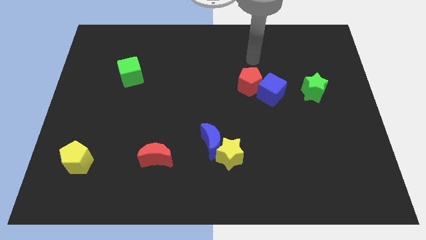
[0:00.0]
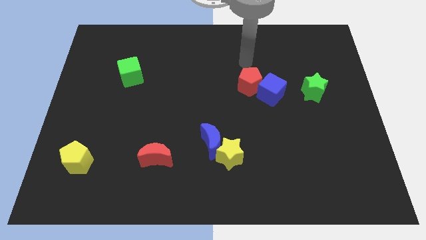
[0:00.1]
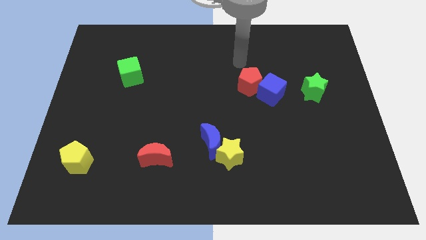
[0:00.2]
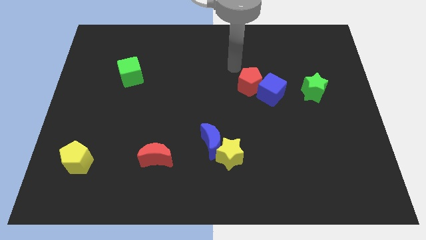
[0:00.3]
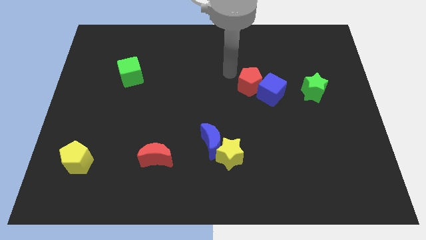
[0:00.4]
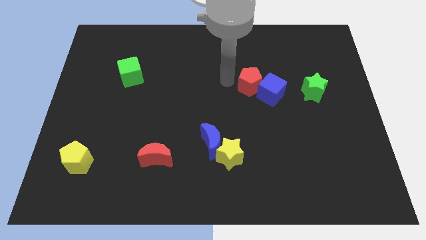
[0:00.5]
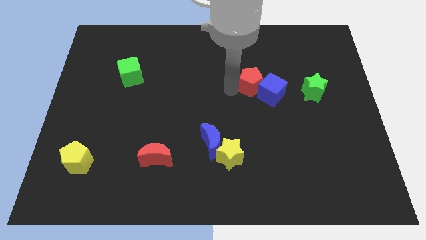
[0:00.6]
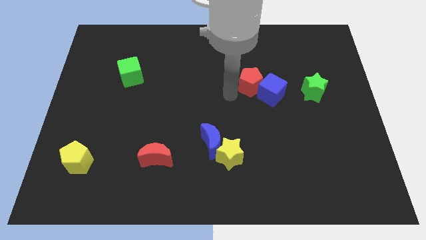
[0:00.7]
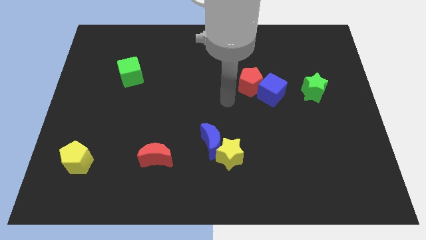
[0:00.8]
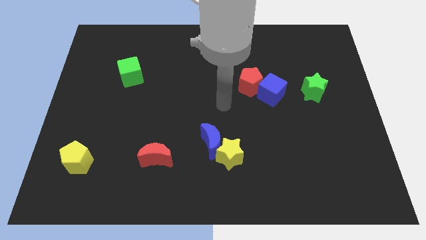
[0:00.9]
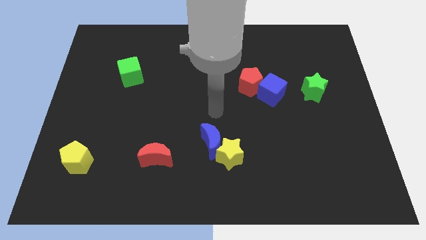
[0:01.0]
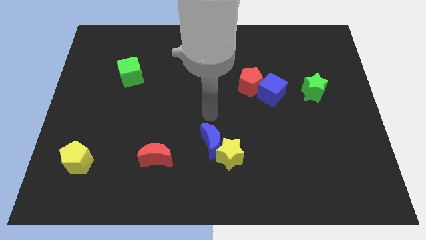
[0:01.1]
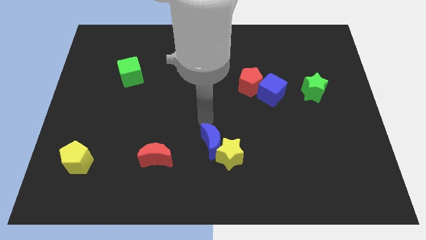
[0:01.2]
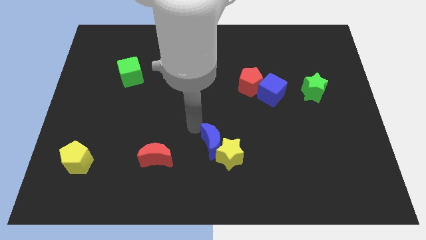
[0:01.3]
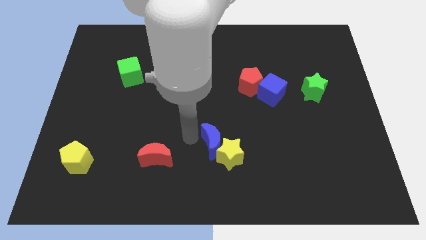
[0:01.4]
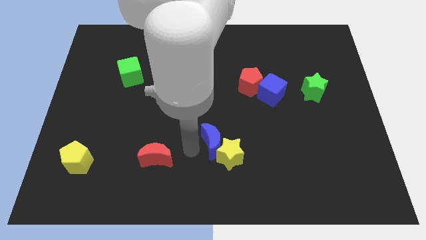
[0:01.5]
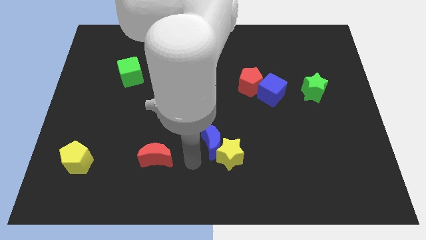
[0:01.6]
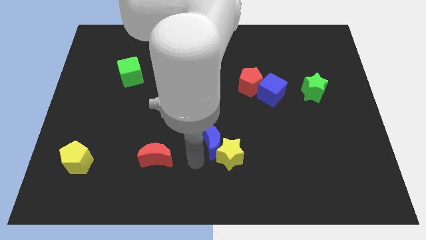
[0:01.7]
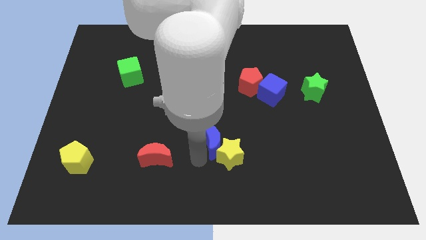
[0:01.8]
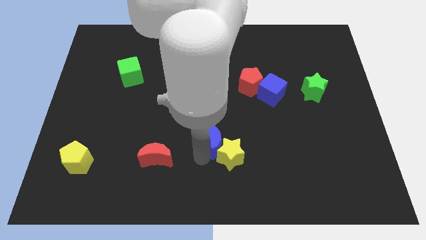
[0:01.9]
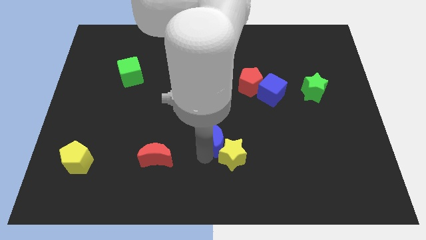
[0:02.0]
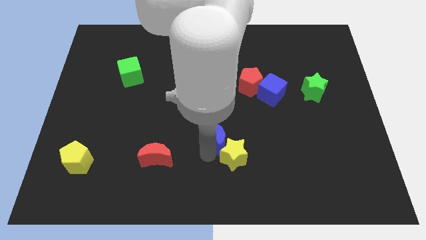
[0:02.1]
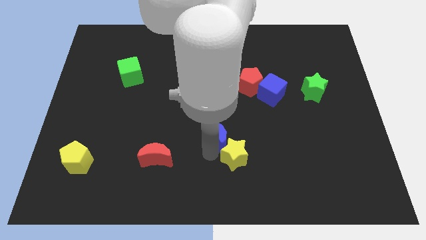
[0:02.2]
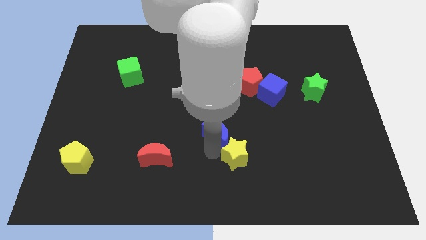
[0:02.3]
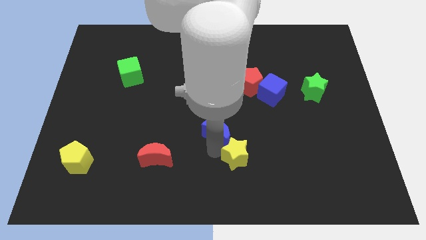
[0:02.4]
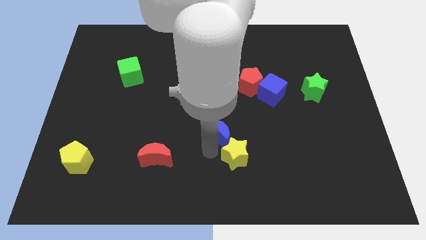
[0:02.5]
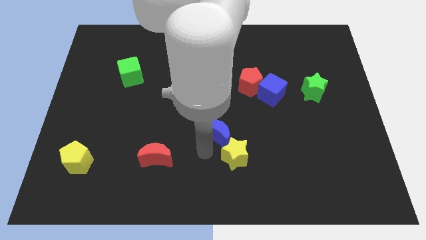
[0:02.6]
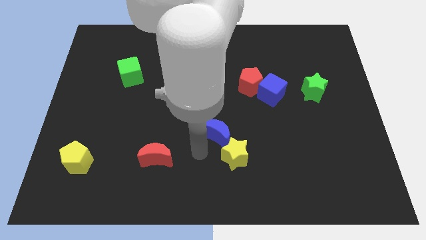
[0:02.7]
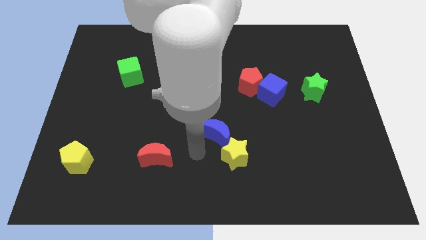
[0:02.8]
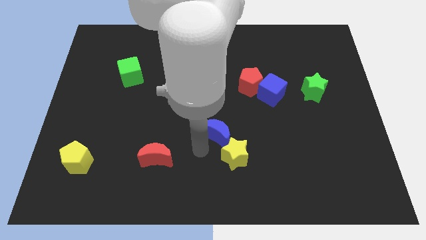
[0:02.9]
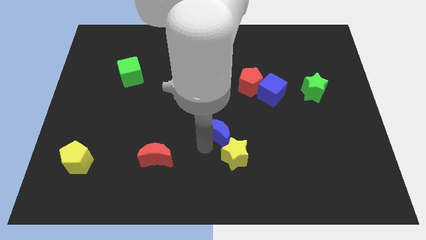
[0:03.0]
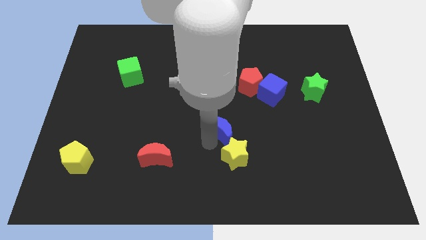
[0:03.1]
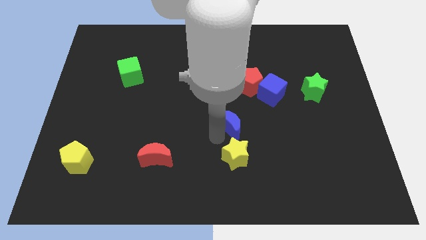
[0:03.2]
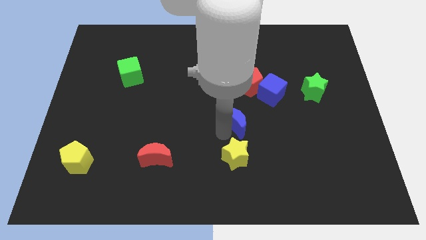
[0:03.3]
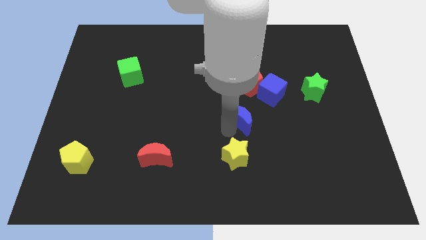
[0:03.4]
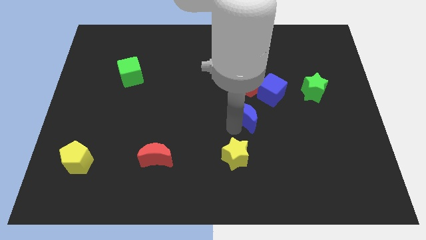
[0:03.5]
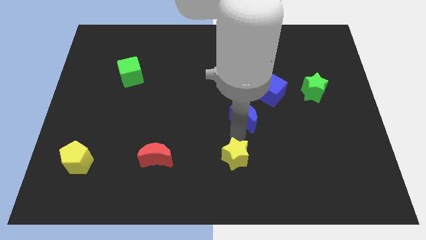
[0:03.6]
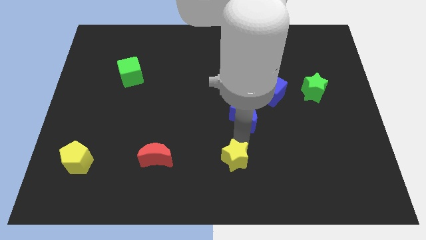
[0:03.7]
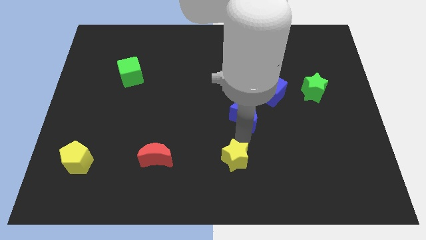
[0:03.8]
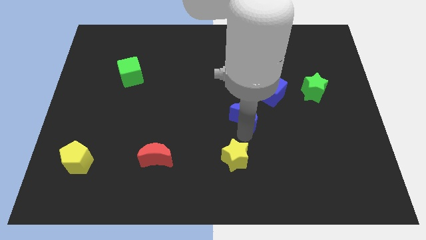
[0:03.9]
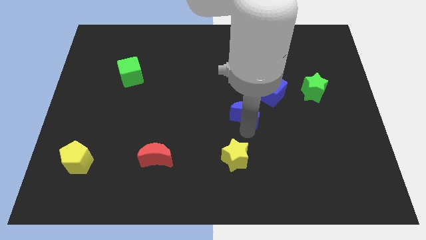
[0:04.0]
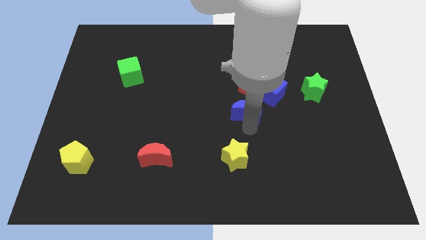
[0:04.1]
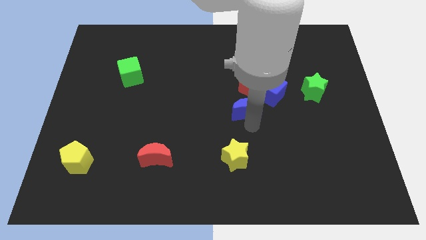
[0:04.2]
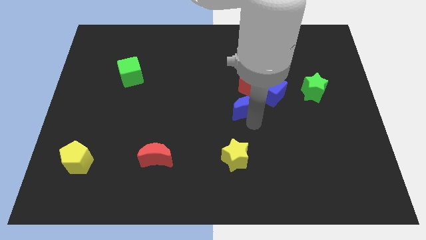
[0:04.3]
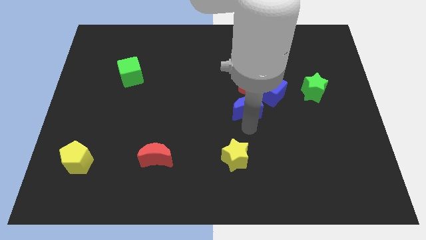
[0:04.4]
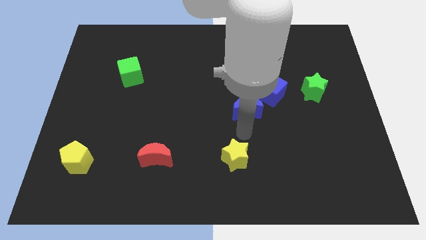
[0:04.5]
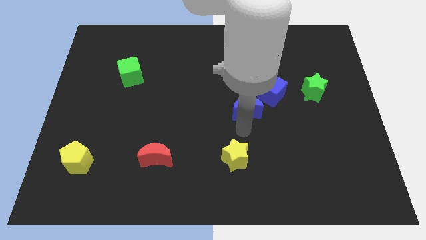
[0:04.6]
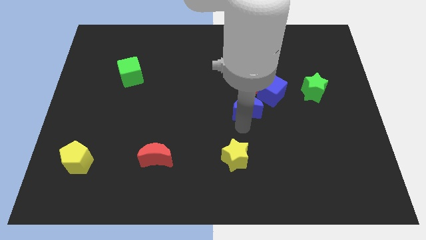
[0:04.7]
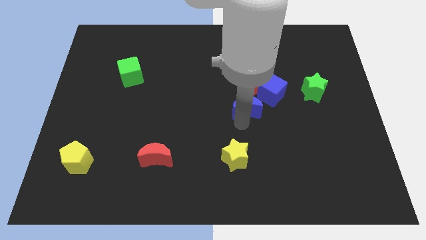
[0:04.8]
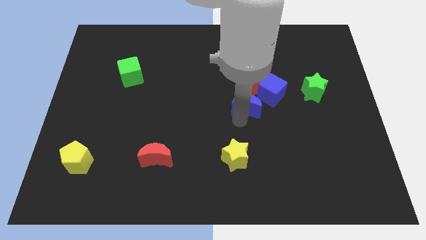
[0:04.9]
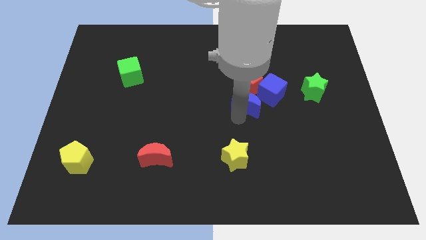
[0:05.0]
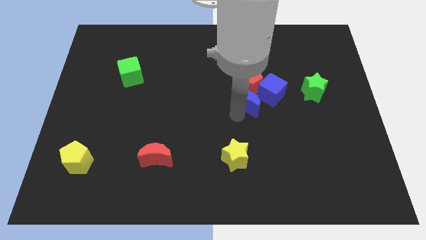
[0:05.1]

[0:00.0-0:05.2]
slide the blue moon close to the red pentagon

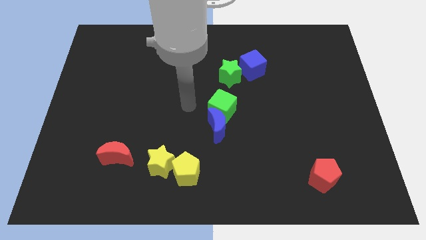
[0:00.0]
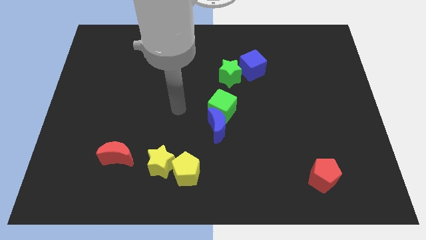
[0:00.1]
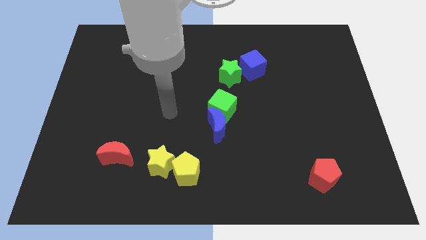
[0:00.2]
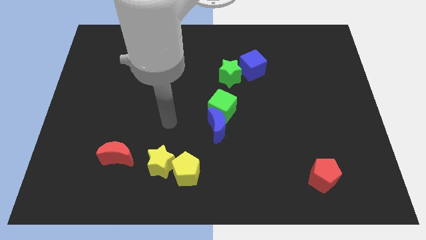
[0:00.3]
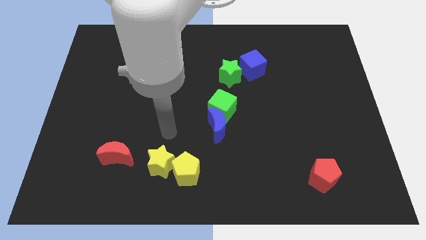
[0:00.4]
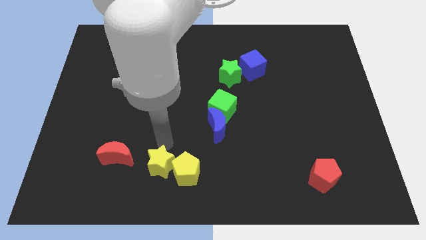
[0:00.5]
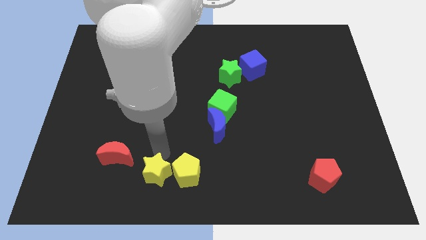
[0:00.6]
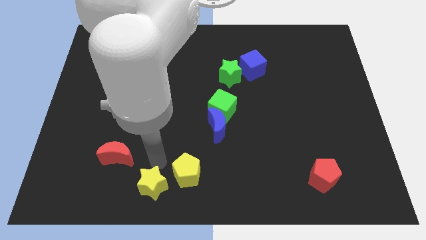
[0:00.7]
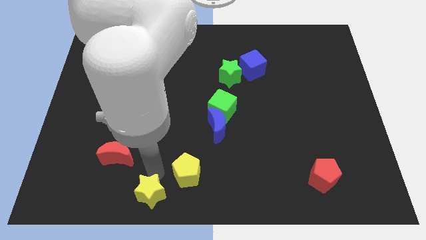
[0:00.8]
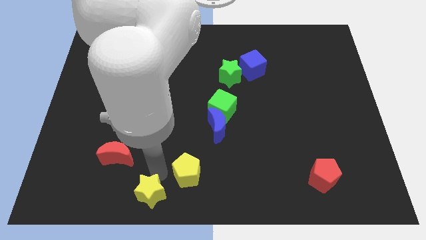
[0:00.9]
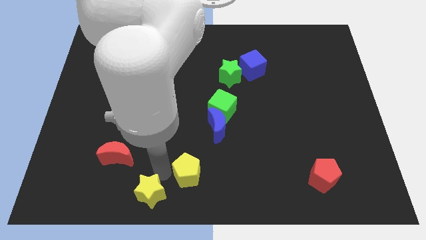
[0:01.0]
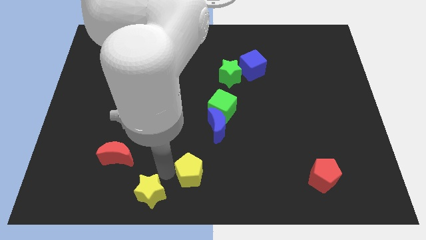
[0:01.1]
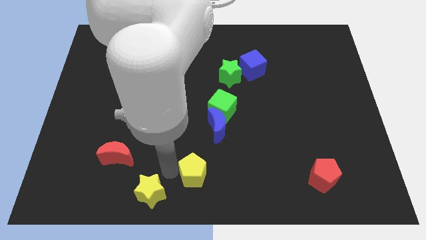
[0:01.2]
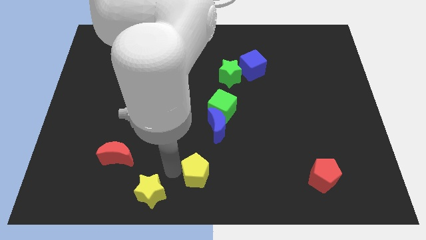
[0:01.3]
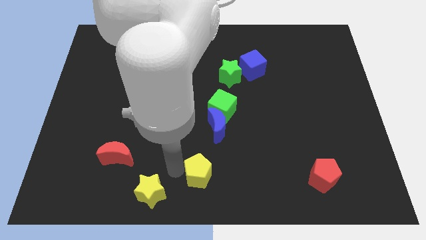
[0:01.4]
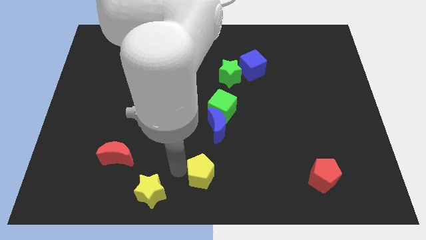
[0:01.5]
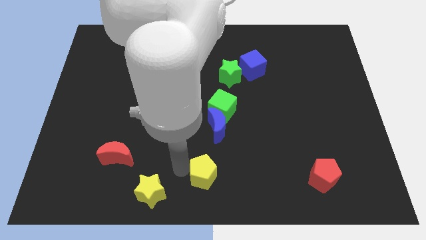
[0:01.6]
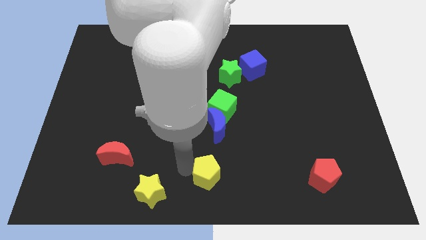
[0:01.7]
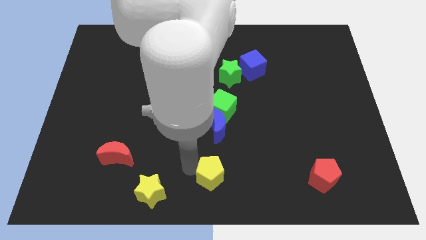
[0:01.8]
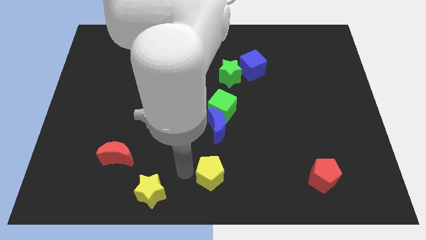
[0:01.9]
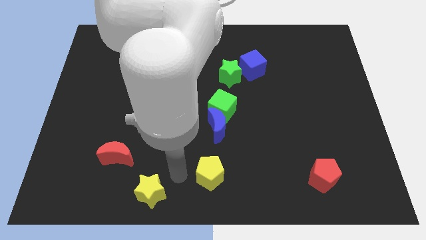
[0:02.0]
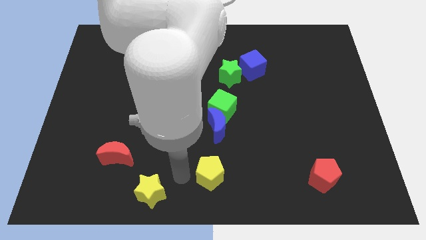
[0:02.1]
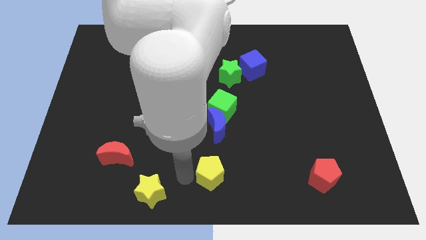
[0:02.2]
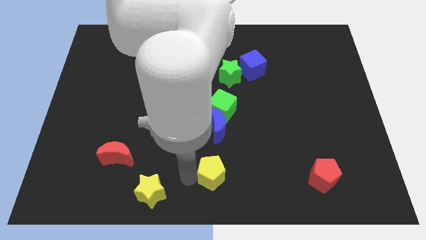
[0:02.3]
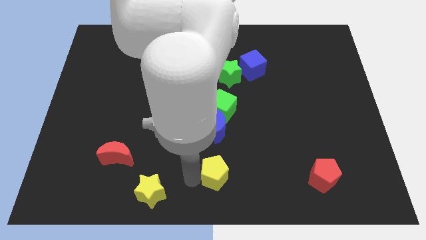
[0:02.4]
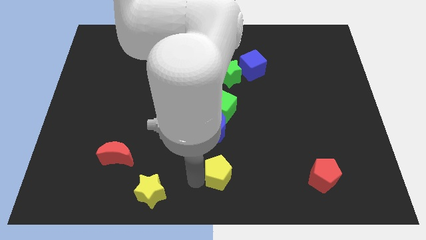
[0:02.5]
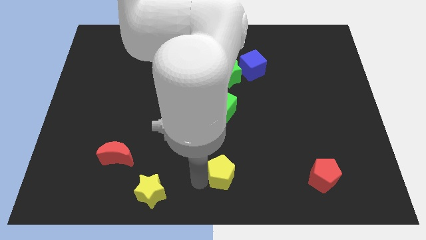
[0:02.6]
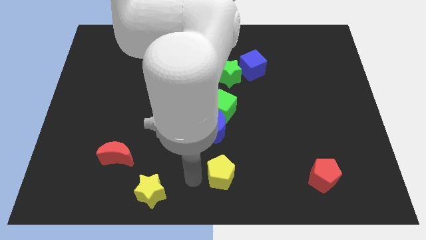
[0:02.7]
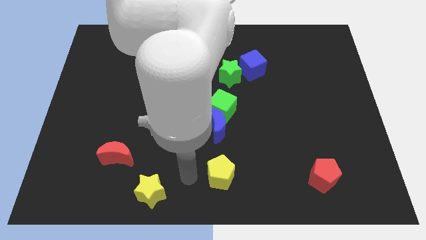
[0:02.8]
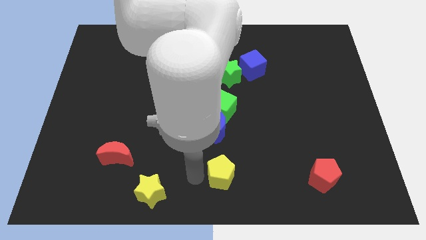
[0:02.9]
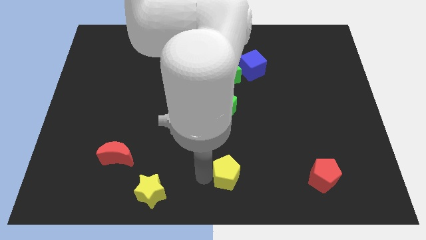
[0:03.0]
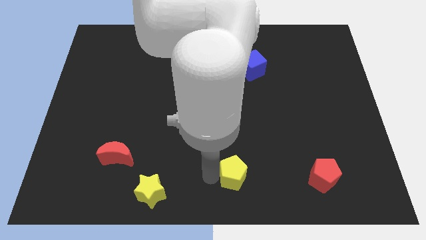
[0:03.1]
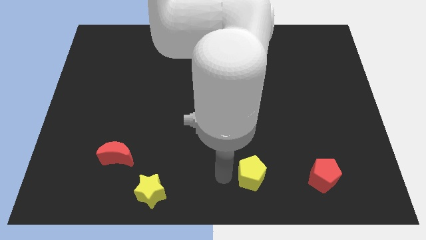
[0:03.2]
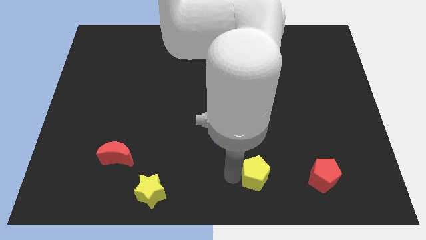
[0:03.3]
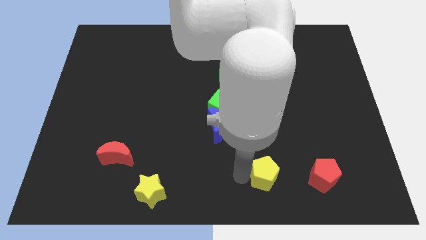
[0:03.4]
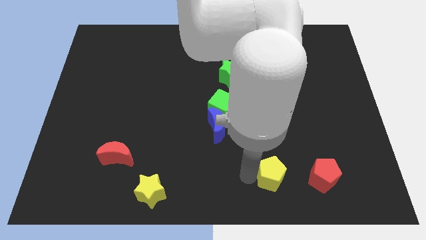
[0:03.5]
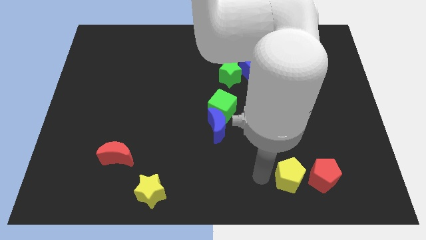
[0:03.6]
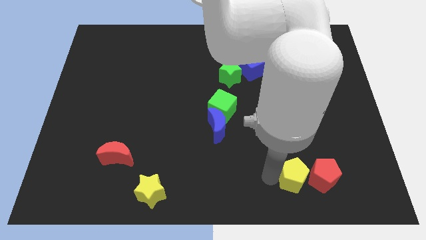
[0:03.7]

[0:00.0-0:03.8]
push the yellow pentagon next to the red pentagon
